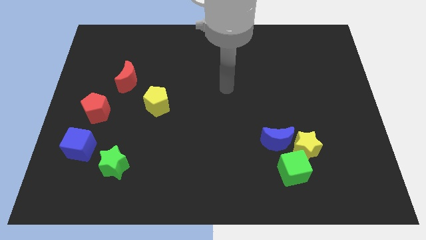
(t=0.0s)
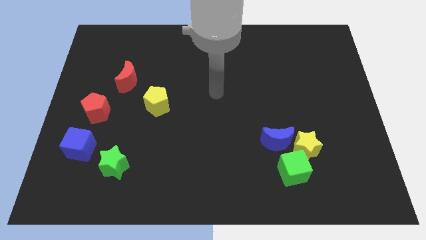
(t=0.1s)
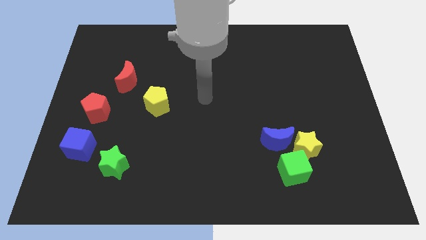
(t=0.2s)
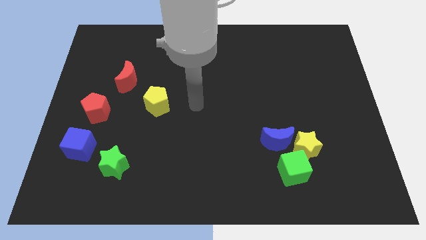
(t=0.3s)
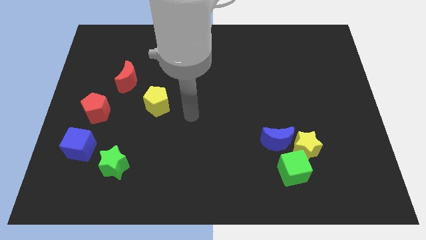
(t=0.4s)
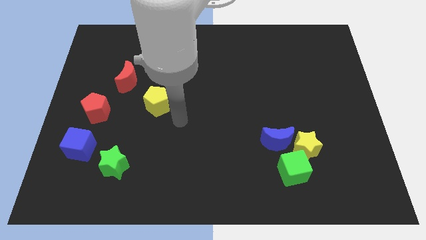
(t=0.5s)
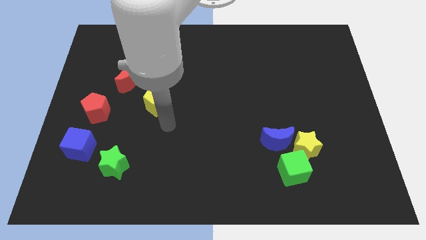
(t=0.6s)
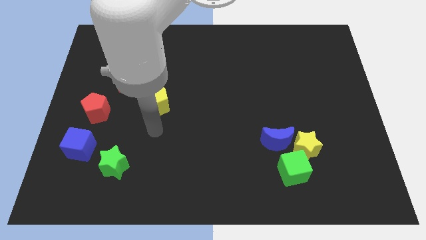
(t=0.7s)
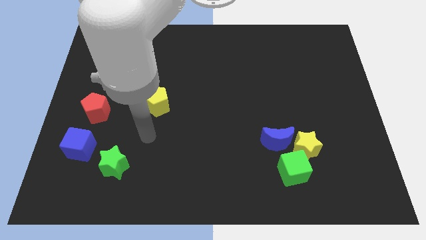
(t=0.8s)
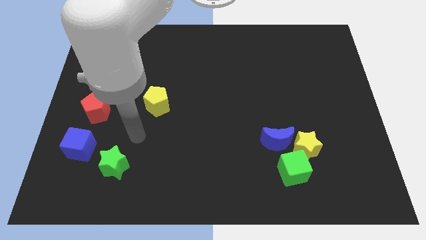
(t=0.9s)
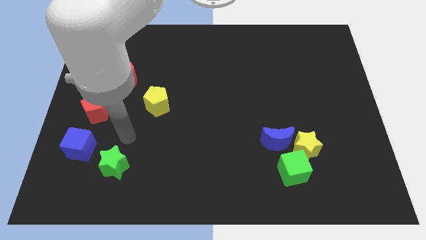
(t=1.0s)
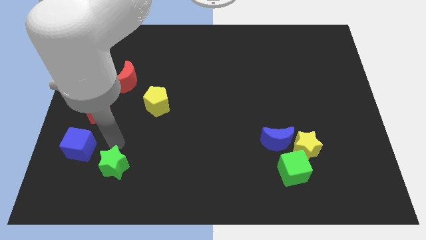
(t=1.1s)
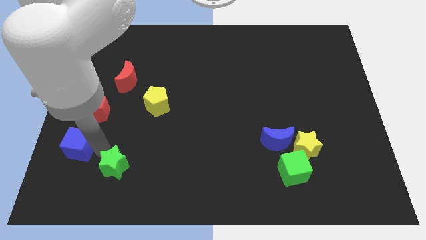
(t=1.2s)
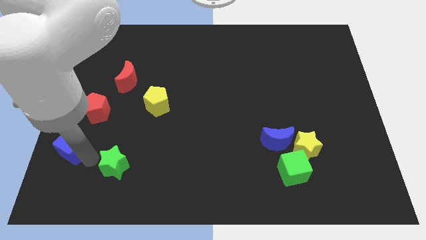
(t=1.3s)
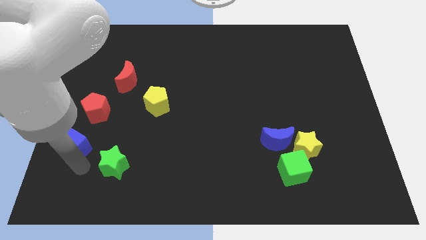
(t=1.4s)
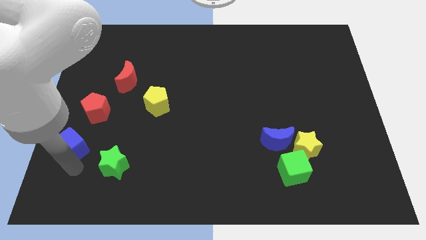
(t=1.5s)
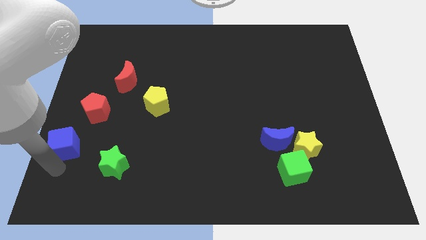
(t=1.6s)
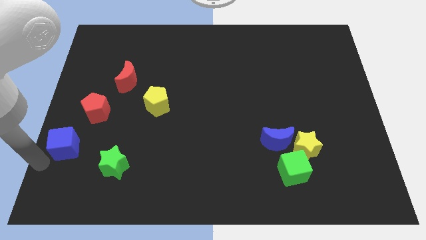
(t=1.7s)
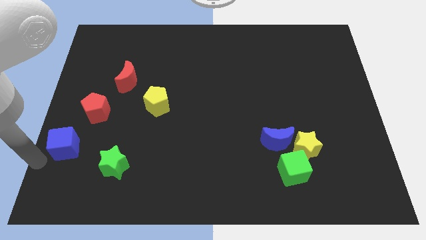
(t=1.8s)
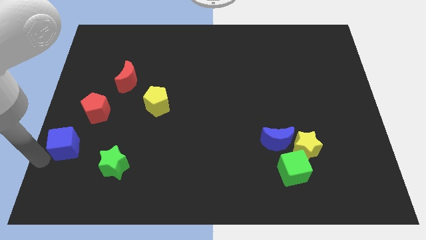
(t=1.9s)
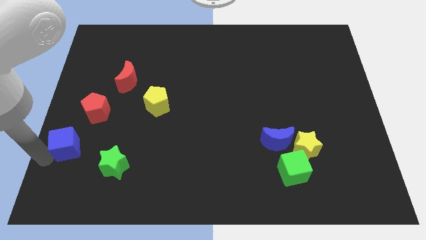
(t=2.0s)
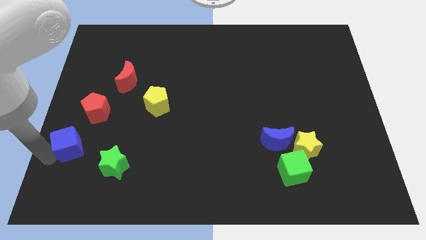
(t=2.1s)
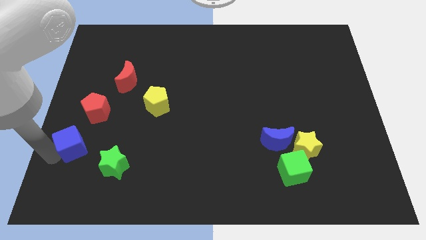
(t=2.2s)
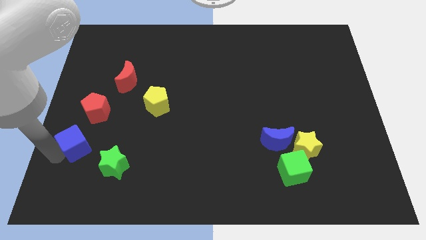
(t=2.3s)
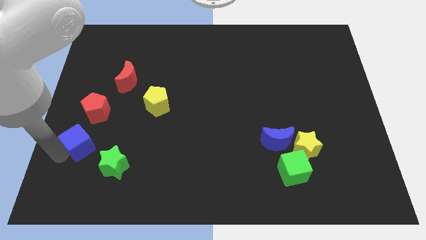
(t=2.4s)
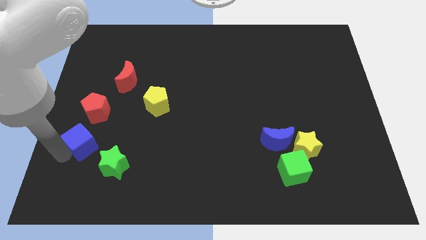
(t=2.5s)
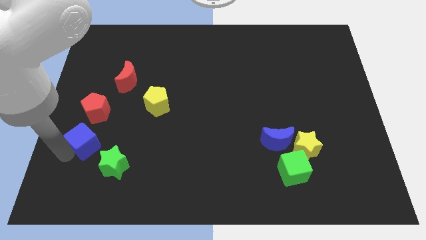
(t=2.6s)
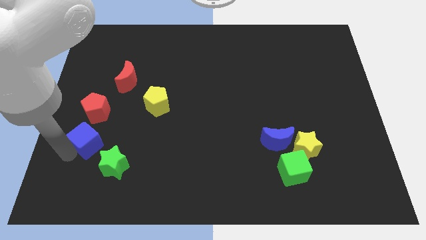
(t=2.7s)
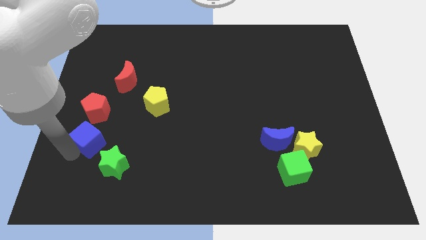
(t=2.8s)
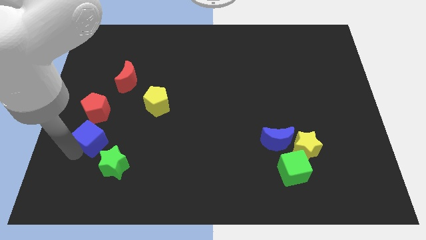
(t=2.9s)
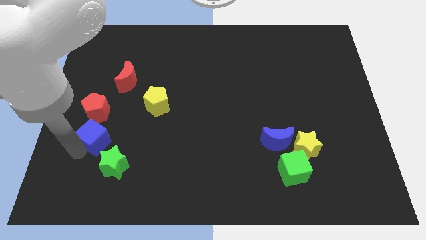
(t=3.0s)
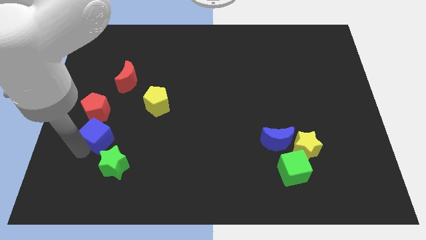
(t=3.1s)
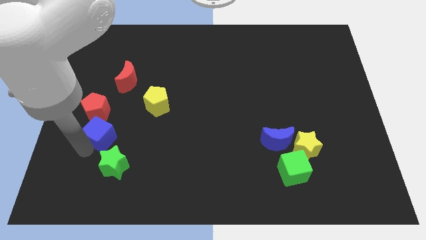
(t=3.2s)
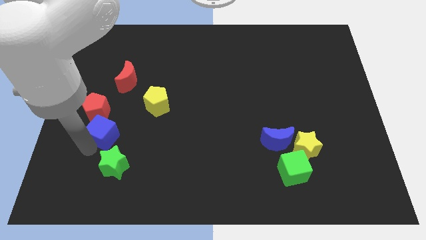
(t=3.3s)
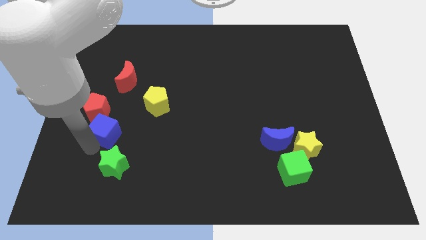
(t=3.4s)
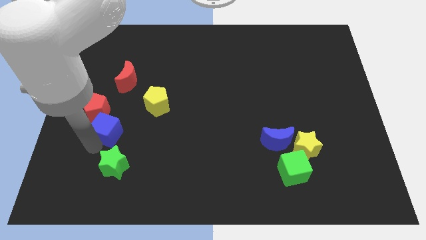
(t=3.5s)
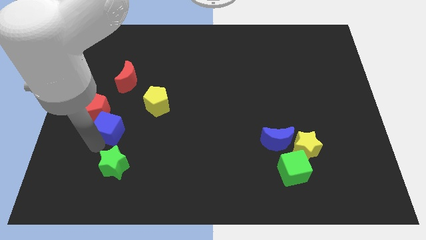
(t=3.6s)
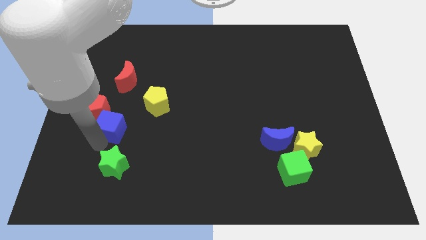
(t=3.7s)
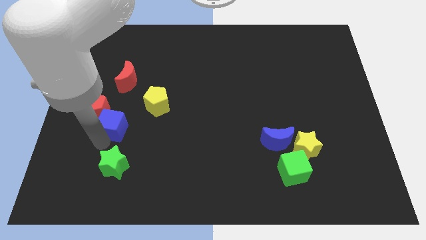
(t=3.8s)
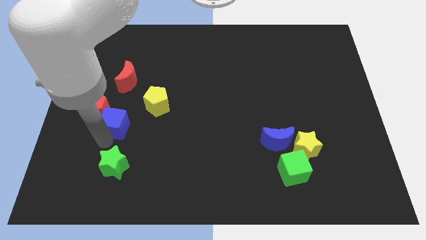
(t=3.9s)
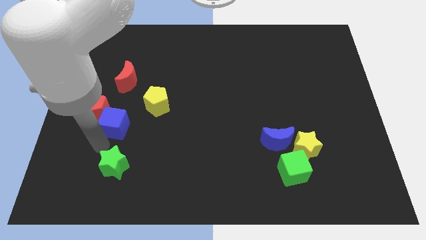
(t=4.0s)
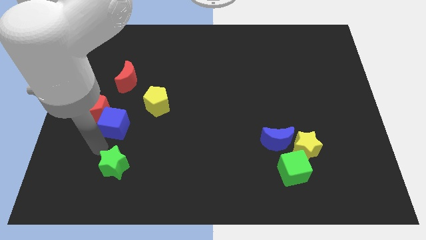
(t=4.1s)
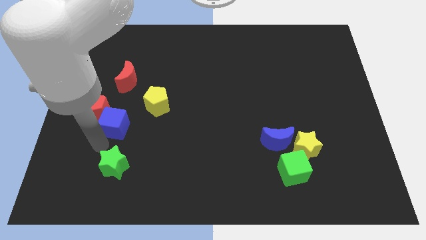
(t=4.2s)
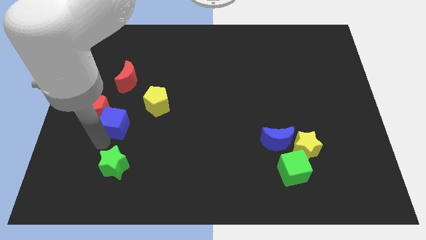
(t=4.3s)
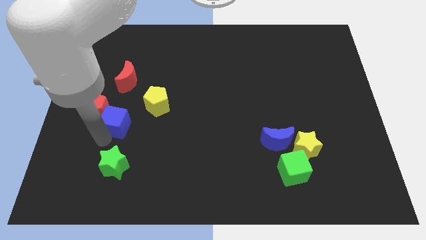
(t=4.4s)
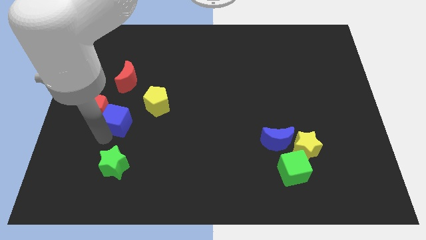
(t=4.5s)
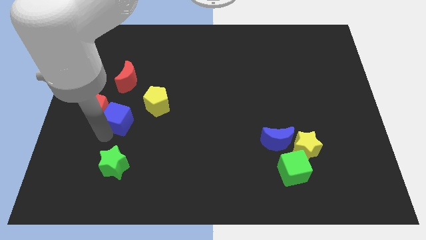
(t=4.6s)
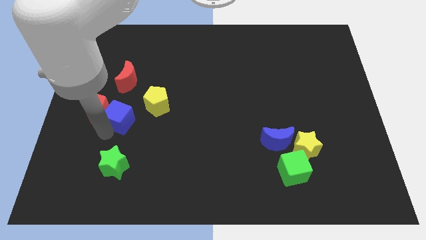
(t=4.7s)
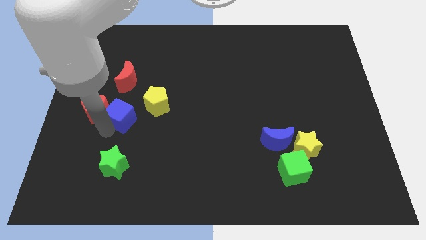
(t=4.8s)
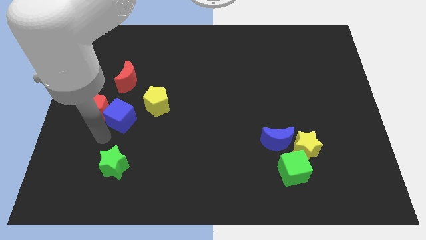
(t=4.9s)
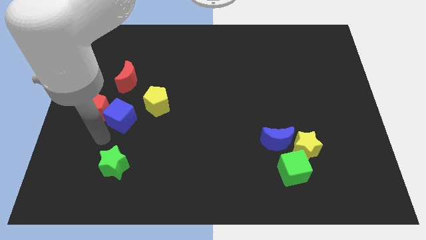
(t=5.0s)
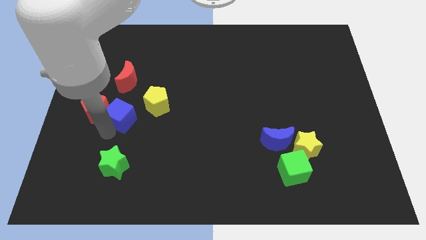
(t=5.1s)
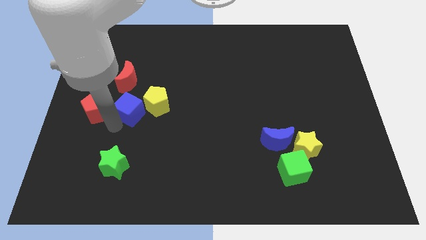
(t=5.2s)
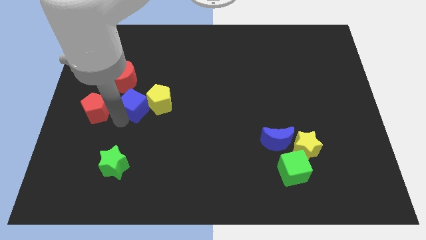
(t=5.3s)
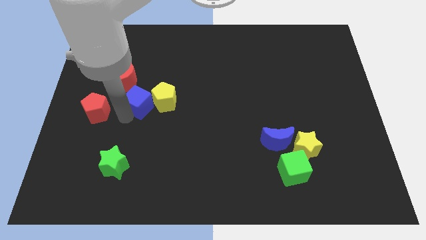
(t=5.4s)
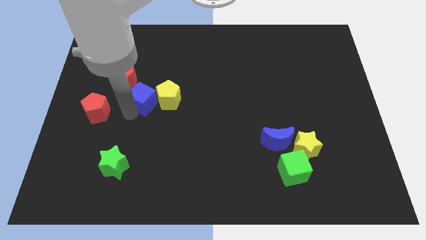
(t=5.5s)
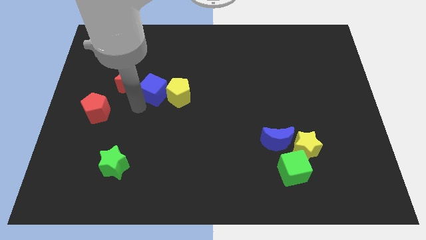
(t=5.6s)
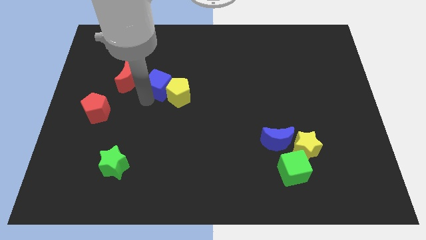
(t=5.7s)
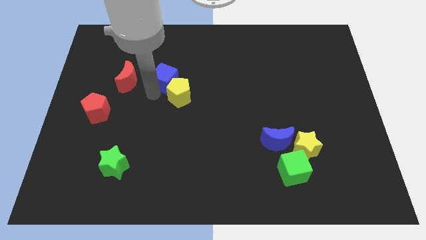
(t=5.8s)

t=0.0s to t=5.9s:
put the blue cube to the top side of the yellow pentagon

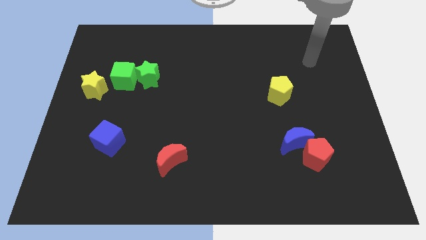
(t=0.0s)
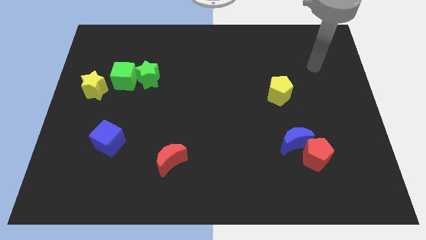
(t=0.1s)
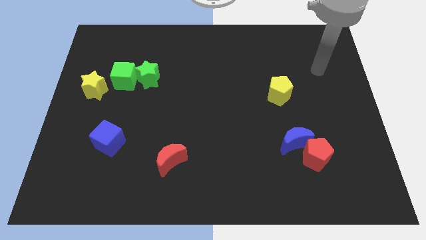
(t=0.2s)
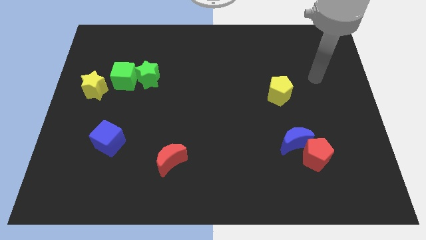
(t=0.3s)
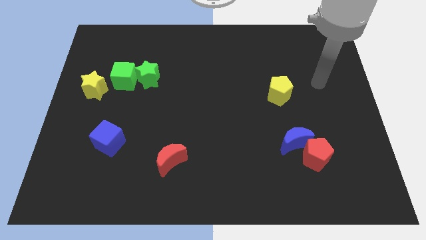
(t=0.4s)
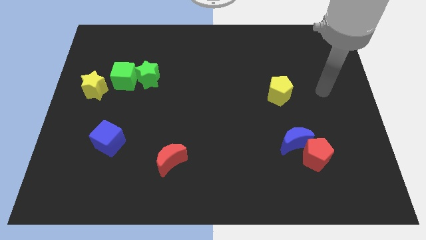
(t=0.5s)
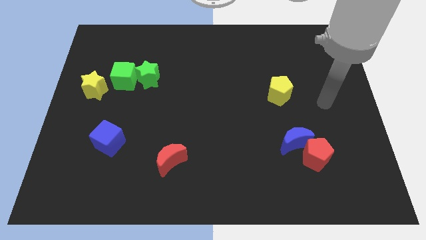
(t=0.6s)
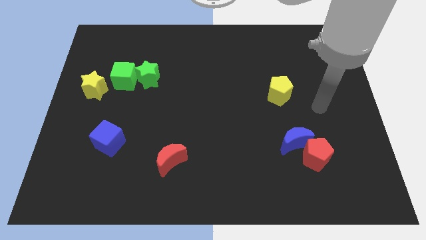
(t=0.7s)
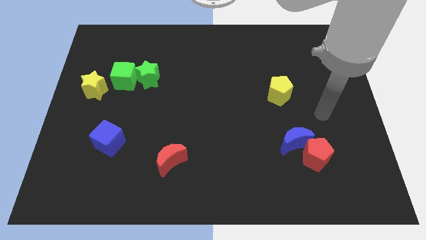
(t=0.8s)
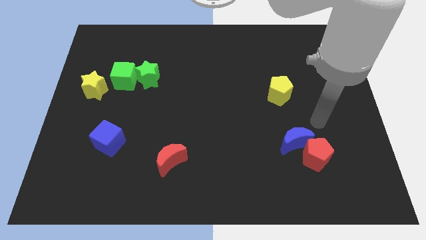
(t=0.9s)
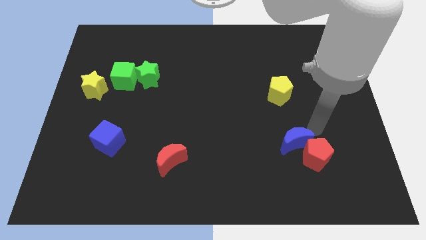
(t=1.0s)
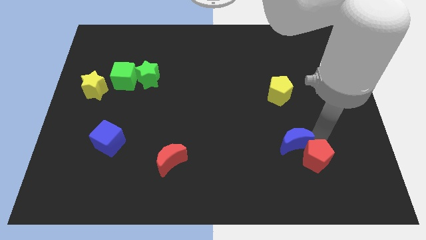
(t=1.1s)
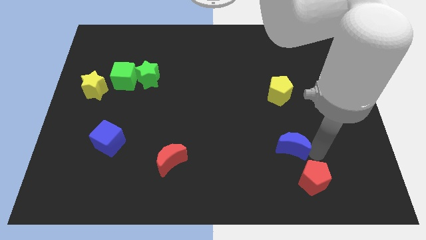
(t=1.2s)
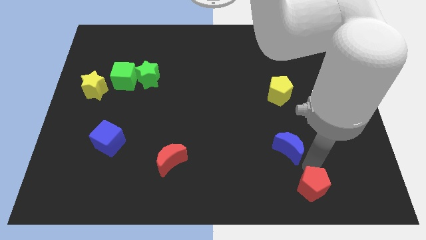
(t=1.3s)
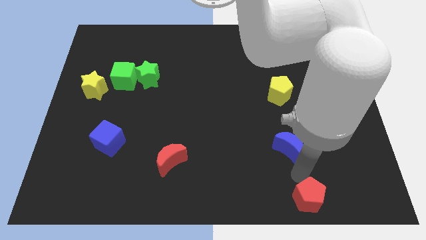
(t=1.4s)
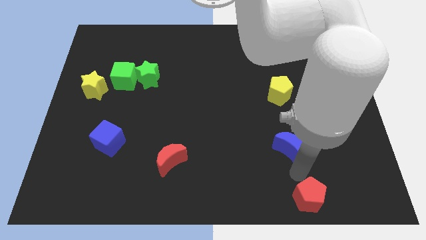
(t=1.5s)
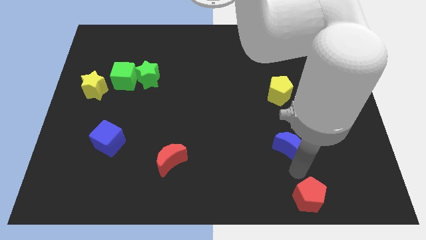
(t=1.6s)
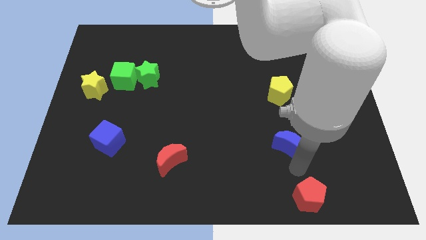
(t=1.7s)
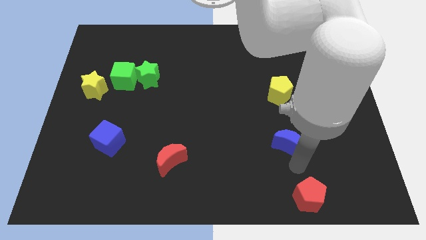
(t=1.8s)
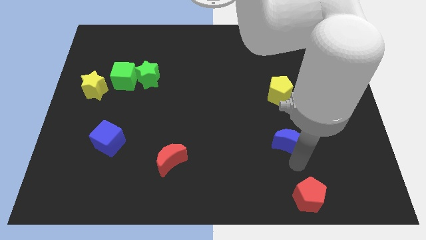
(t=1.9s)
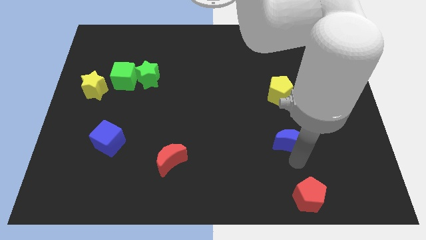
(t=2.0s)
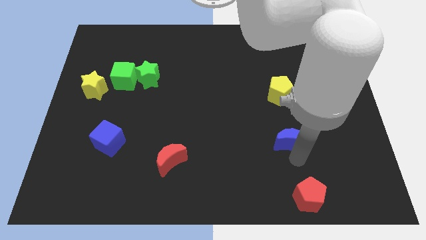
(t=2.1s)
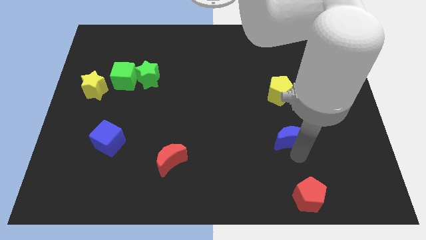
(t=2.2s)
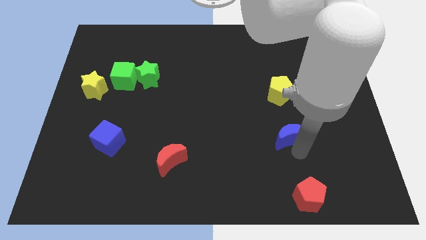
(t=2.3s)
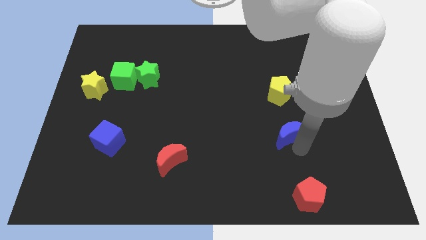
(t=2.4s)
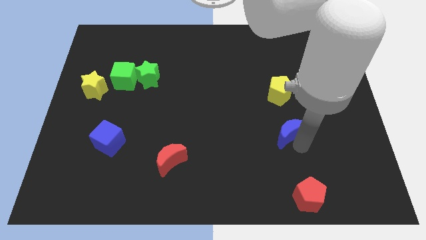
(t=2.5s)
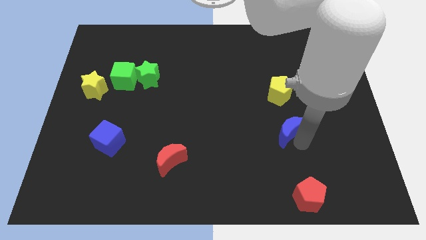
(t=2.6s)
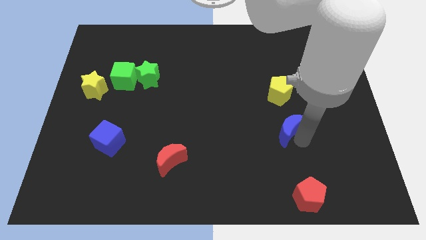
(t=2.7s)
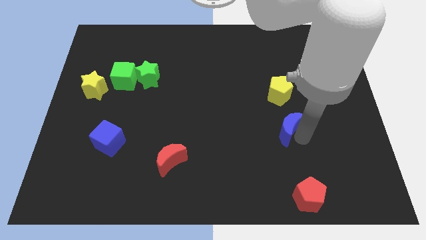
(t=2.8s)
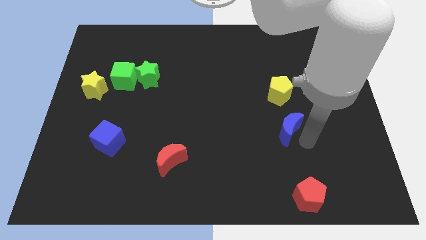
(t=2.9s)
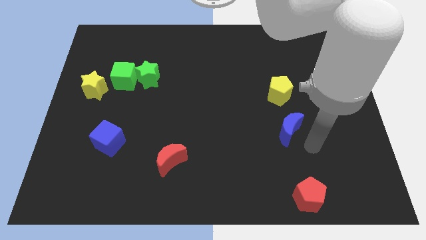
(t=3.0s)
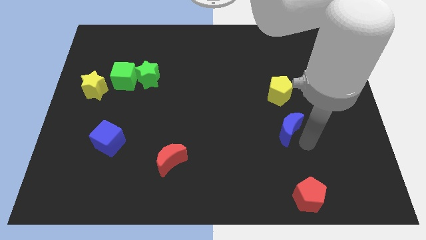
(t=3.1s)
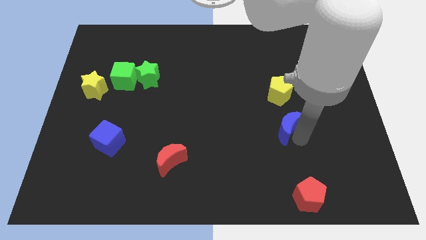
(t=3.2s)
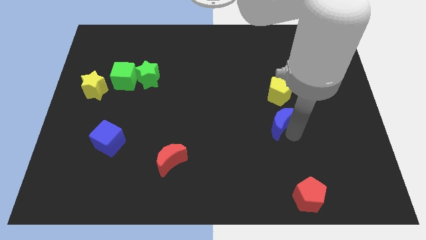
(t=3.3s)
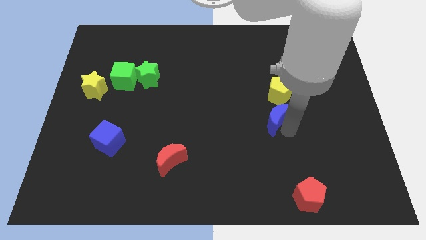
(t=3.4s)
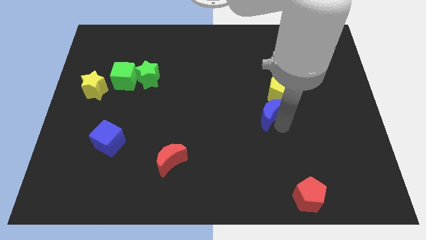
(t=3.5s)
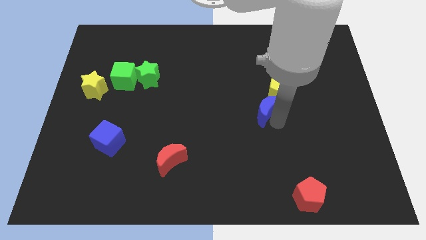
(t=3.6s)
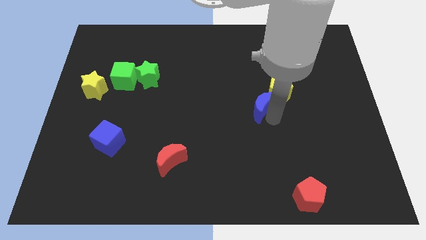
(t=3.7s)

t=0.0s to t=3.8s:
move the blue moon to the left of the yellow pentagon
